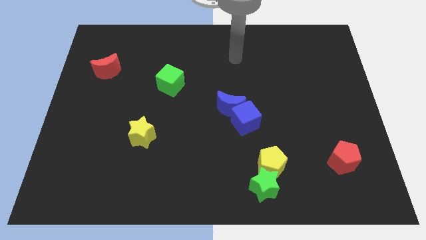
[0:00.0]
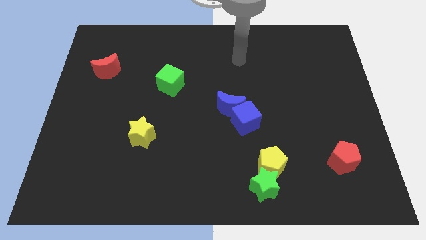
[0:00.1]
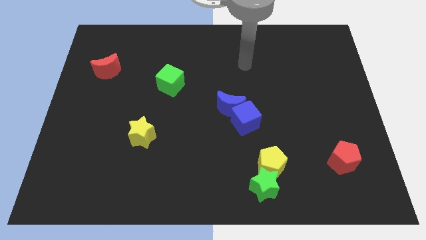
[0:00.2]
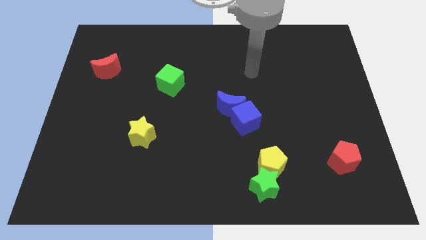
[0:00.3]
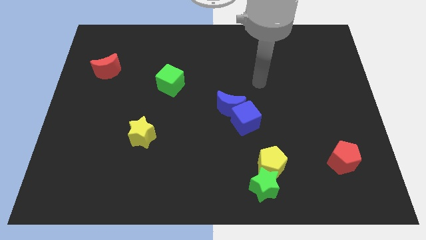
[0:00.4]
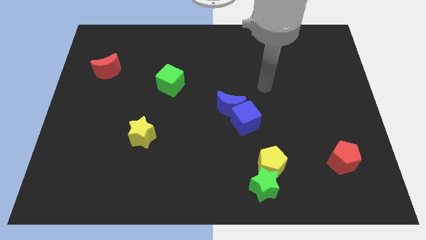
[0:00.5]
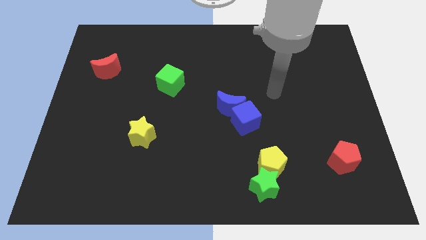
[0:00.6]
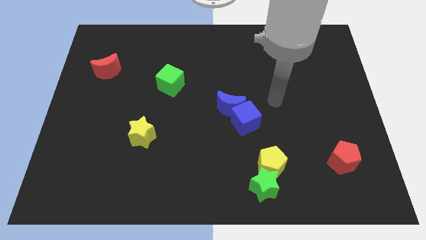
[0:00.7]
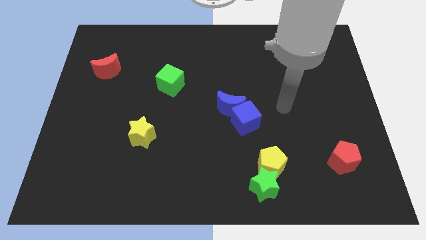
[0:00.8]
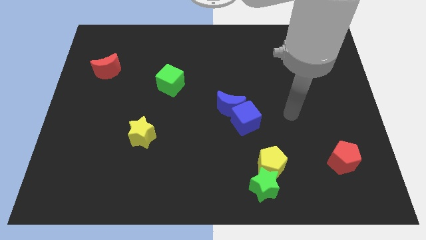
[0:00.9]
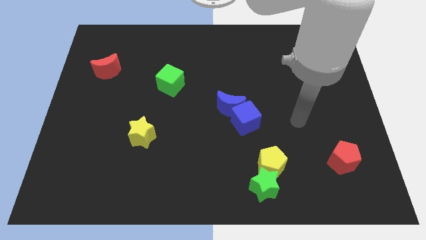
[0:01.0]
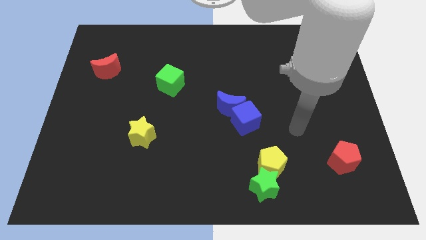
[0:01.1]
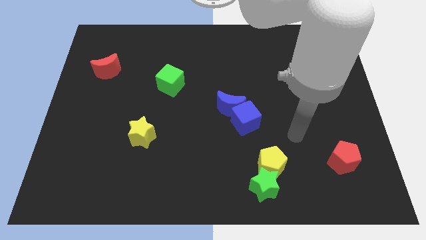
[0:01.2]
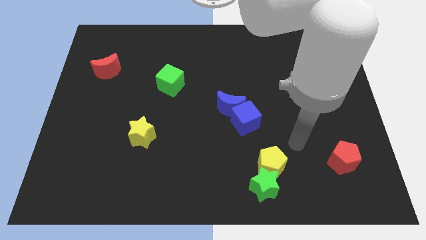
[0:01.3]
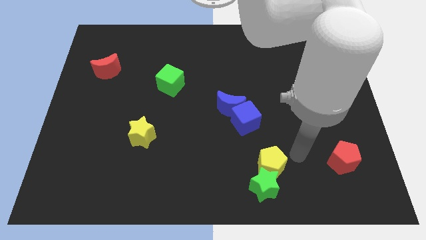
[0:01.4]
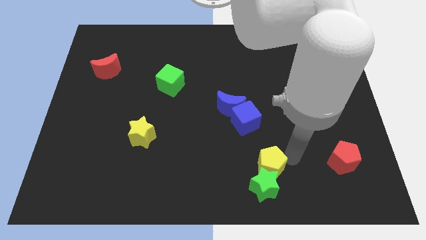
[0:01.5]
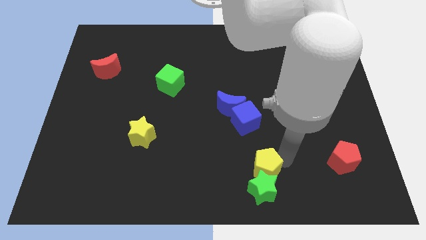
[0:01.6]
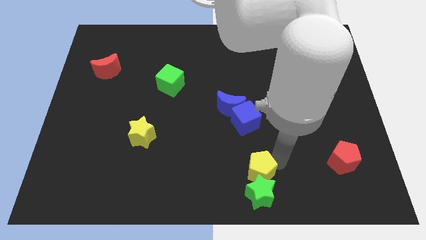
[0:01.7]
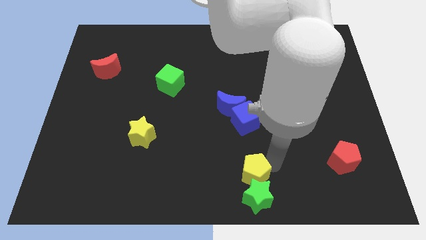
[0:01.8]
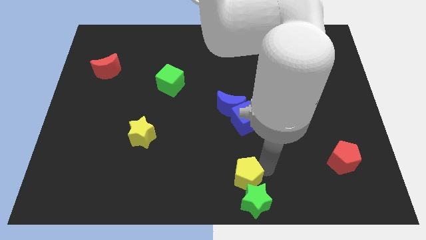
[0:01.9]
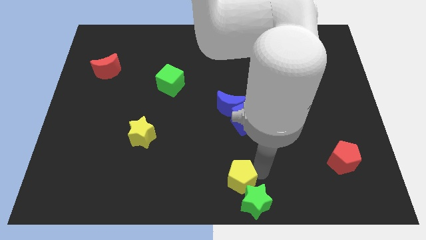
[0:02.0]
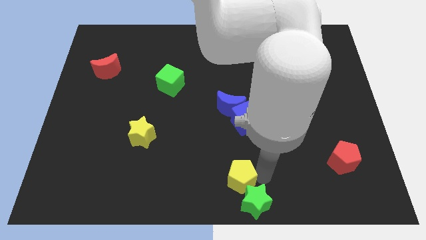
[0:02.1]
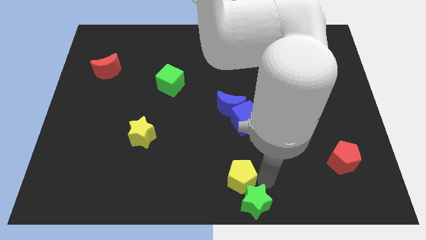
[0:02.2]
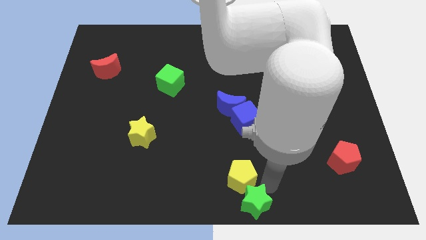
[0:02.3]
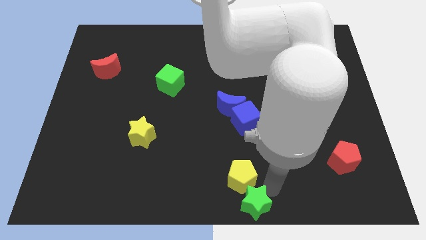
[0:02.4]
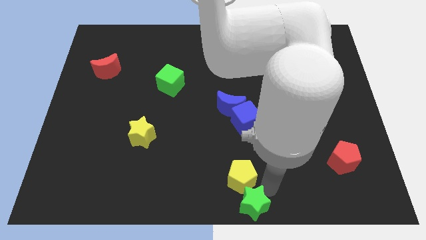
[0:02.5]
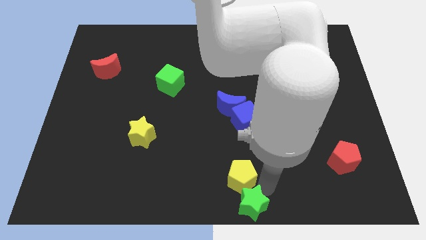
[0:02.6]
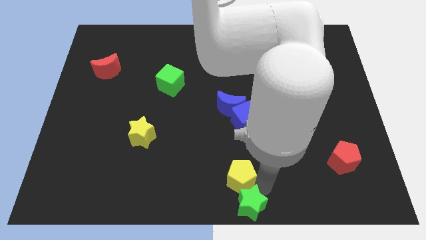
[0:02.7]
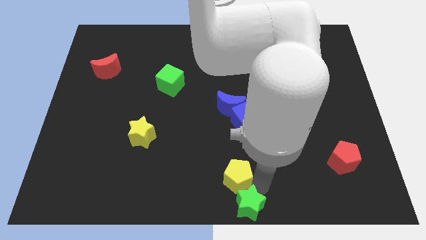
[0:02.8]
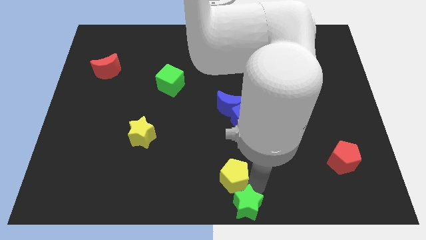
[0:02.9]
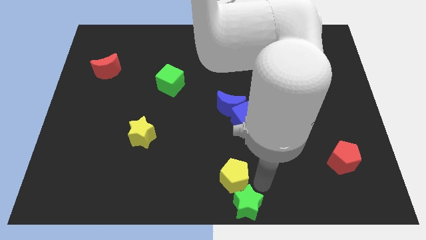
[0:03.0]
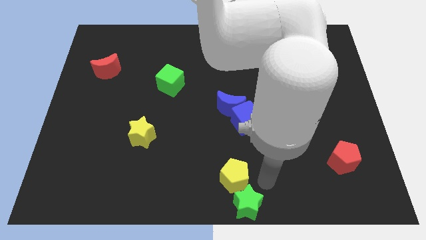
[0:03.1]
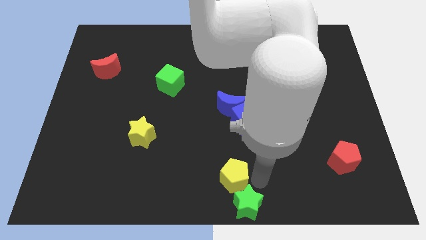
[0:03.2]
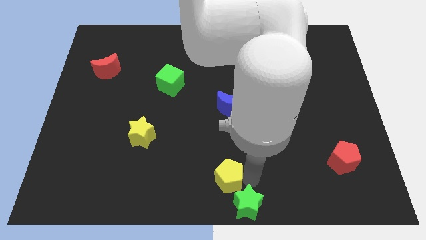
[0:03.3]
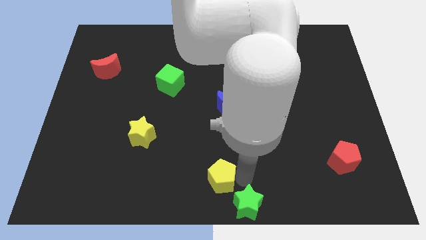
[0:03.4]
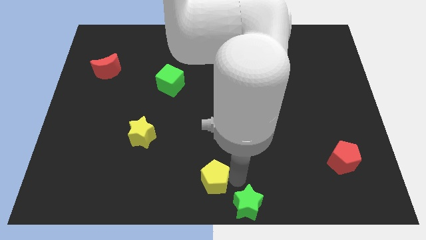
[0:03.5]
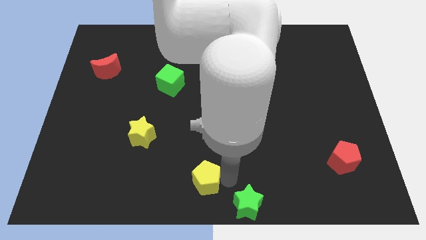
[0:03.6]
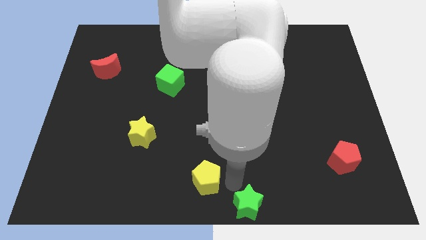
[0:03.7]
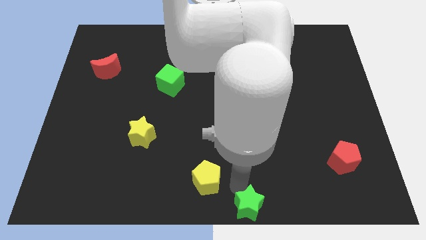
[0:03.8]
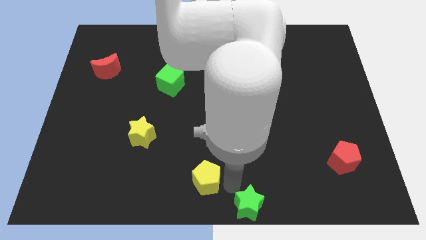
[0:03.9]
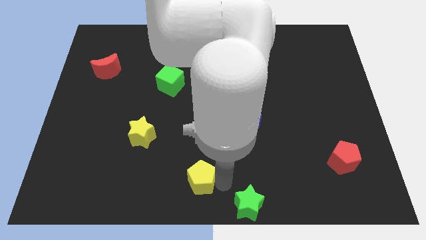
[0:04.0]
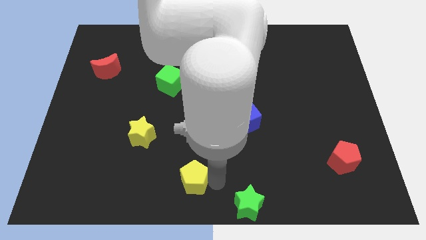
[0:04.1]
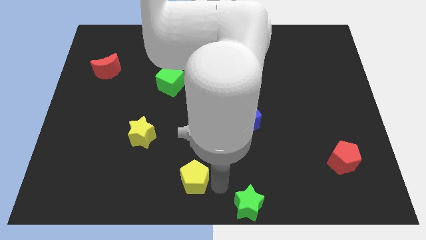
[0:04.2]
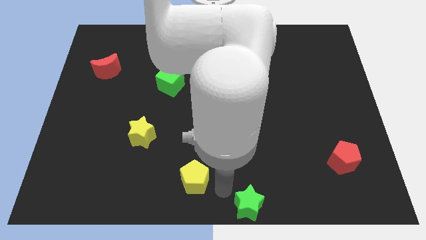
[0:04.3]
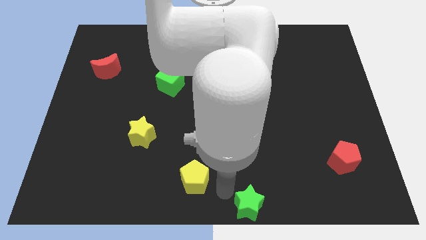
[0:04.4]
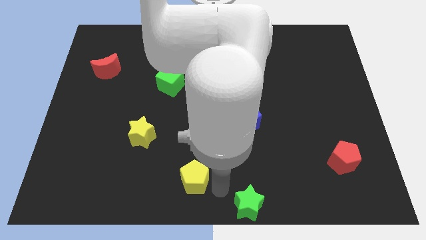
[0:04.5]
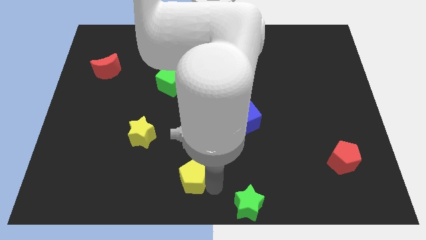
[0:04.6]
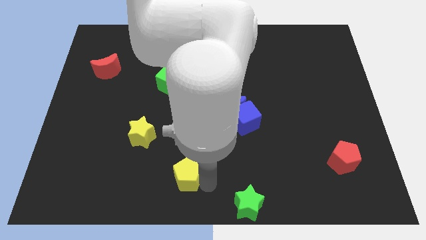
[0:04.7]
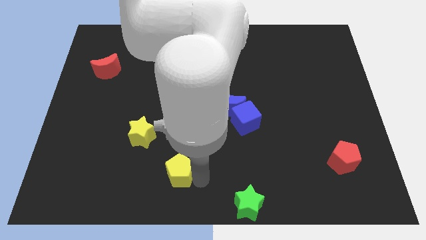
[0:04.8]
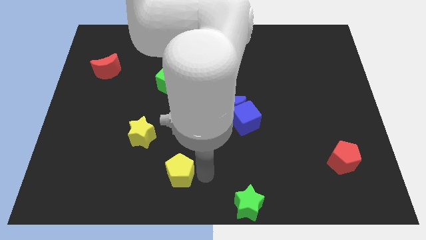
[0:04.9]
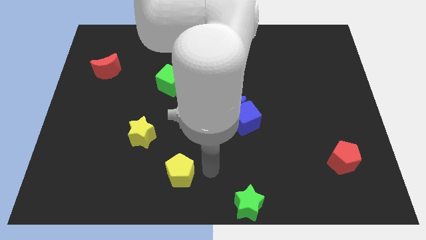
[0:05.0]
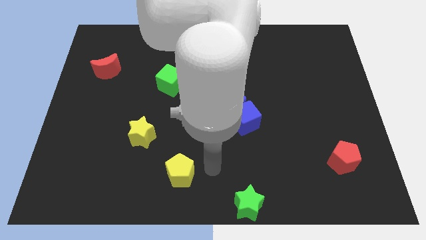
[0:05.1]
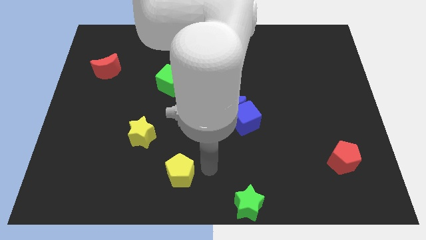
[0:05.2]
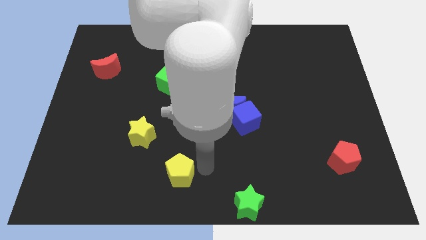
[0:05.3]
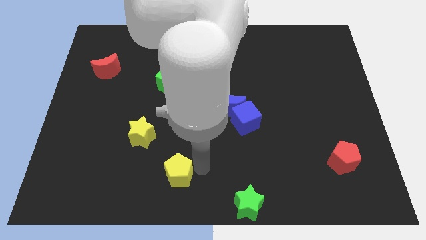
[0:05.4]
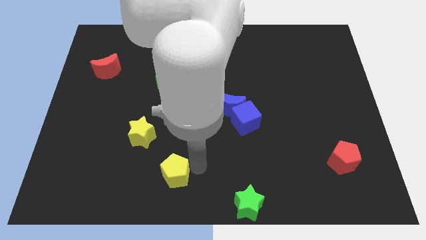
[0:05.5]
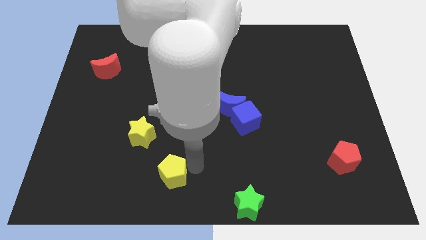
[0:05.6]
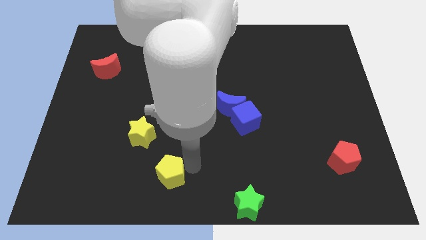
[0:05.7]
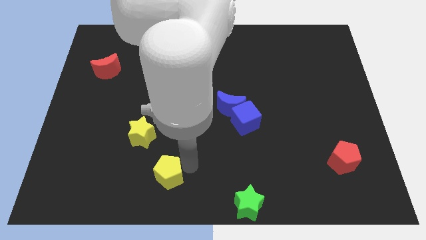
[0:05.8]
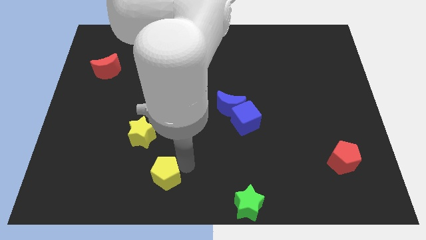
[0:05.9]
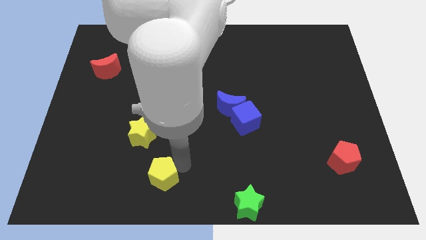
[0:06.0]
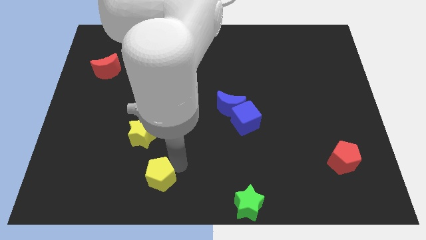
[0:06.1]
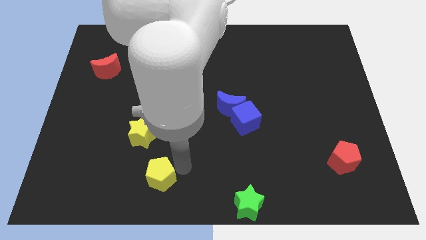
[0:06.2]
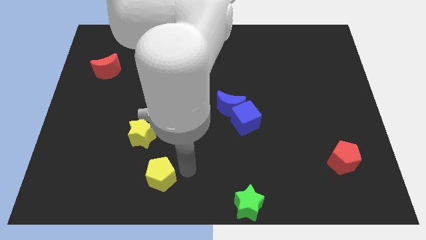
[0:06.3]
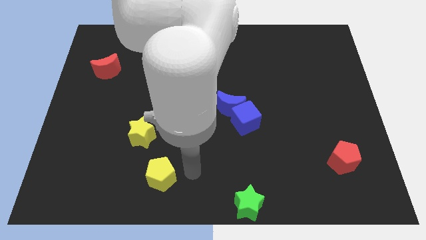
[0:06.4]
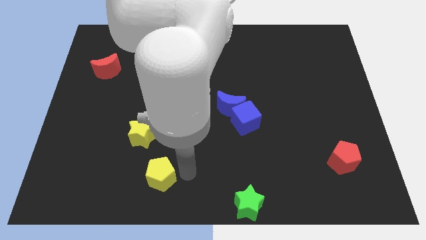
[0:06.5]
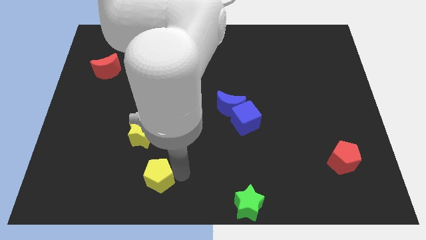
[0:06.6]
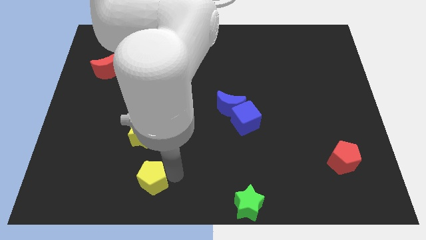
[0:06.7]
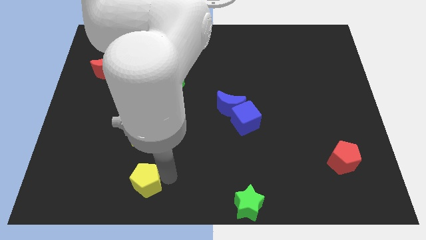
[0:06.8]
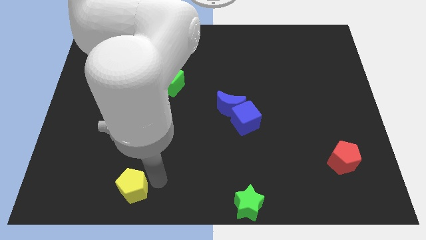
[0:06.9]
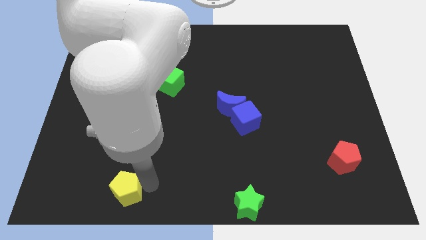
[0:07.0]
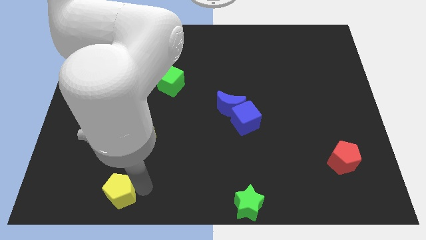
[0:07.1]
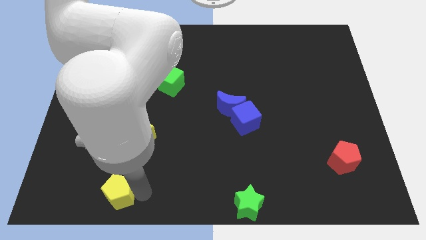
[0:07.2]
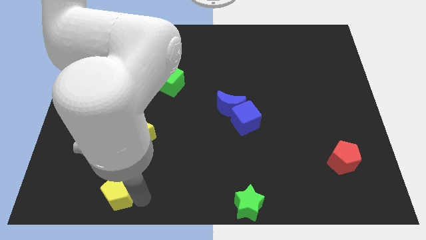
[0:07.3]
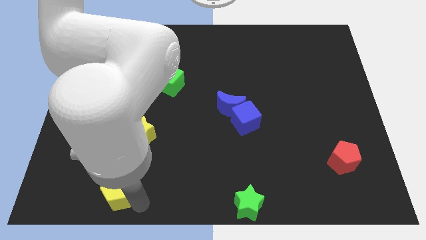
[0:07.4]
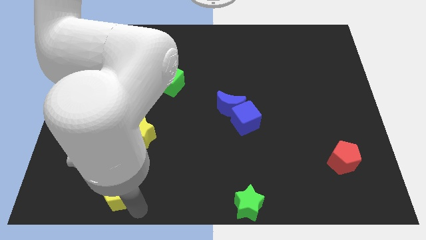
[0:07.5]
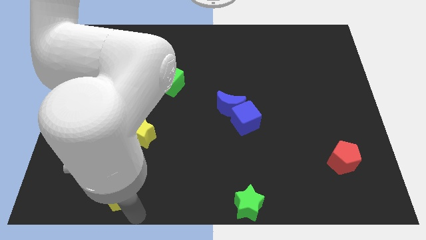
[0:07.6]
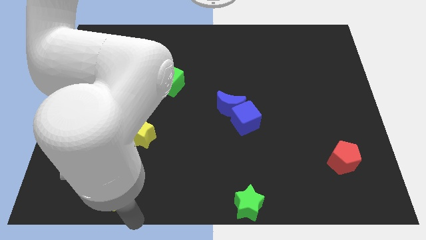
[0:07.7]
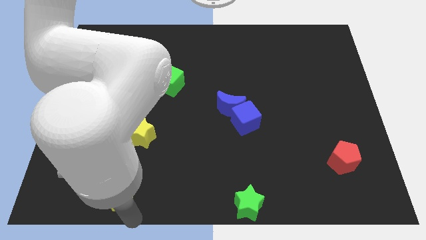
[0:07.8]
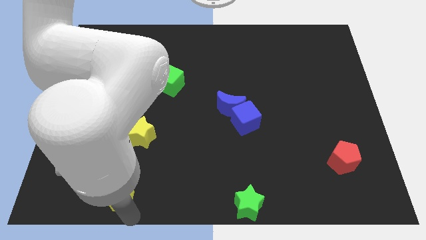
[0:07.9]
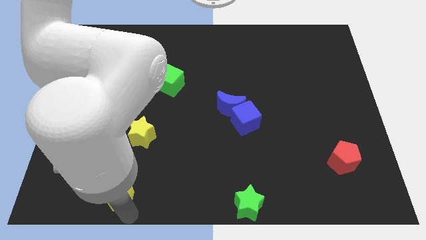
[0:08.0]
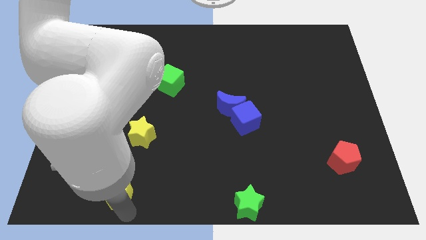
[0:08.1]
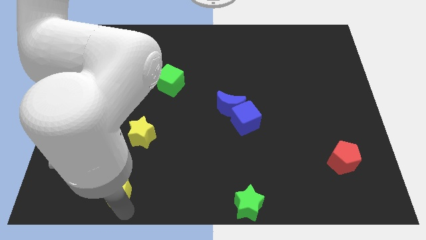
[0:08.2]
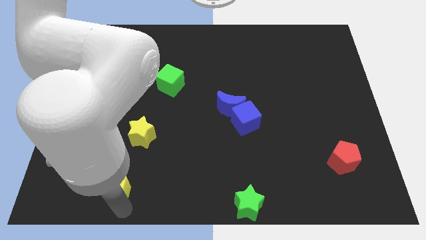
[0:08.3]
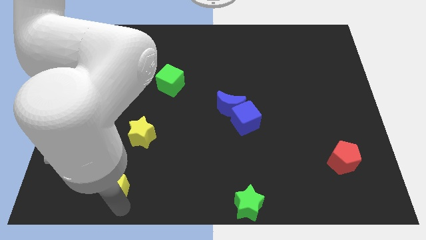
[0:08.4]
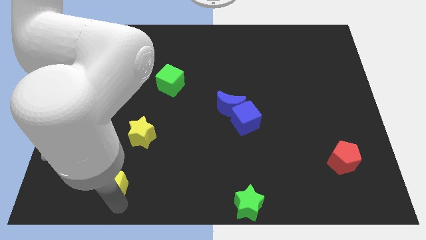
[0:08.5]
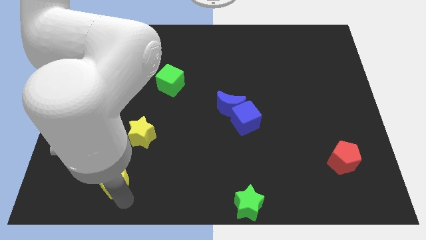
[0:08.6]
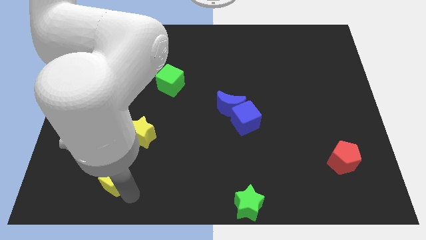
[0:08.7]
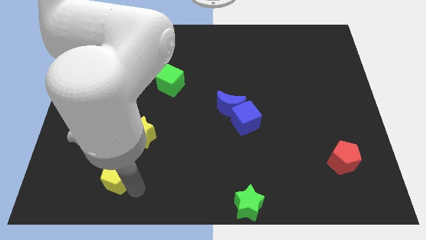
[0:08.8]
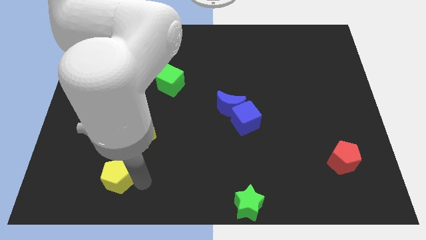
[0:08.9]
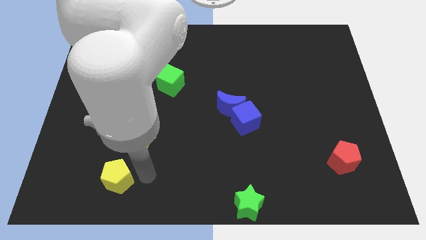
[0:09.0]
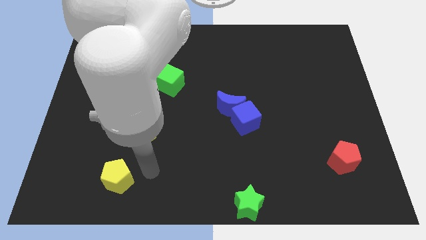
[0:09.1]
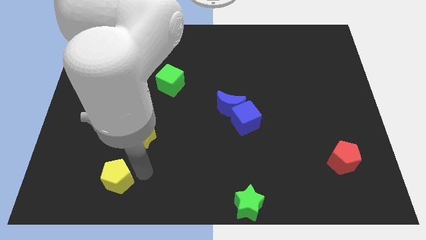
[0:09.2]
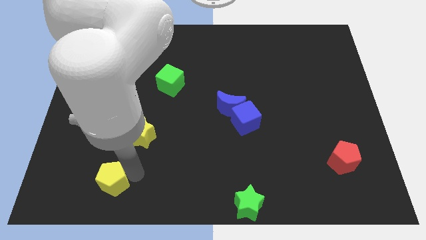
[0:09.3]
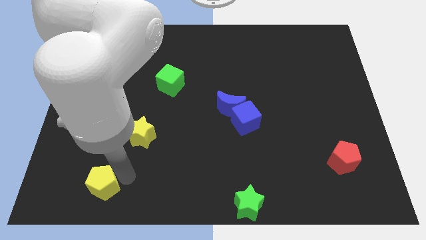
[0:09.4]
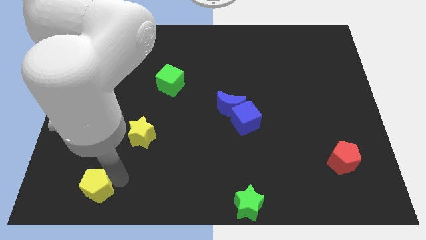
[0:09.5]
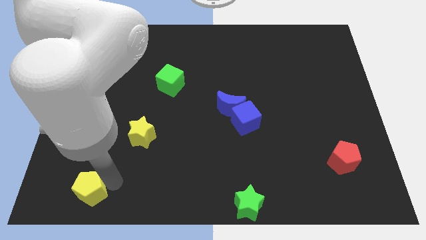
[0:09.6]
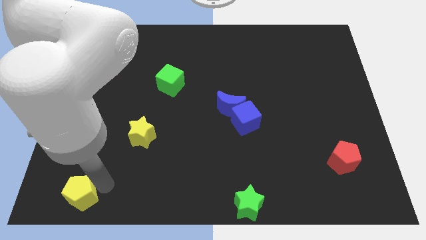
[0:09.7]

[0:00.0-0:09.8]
put the yellow pentagon to the bottom left corner
